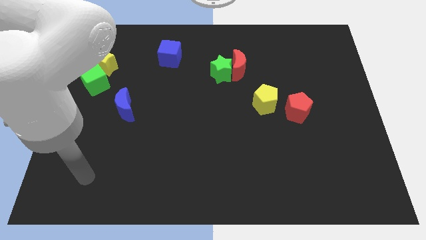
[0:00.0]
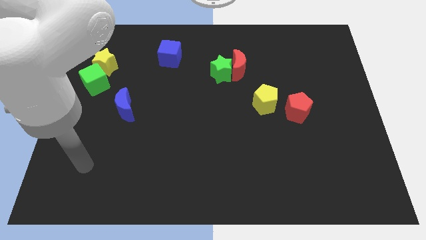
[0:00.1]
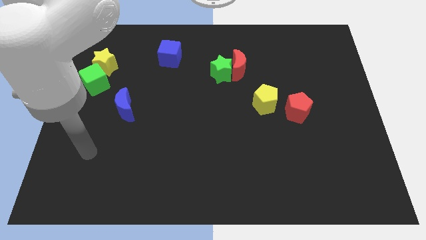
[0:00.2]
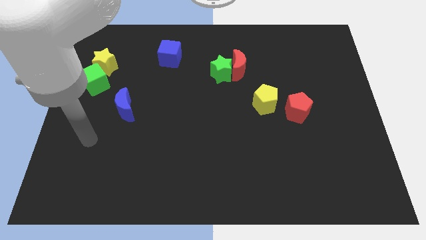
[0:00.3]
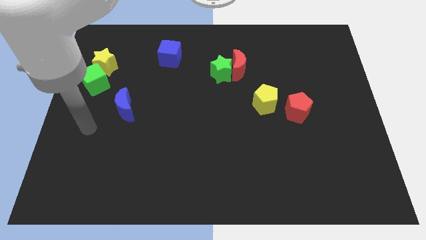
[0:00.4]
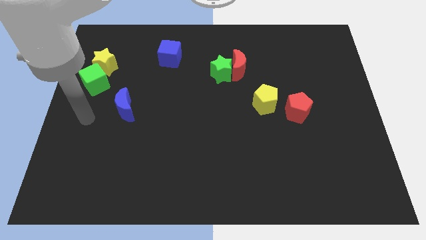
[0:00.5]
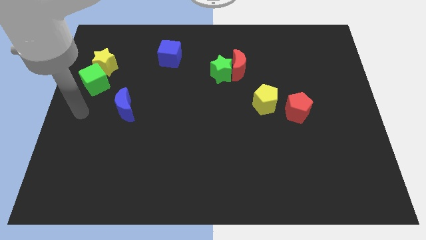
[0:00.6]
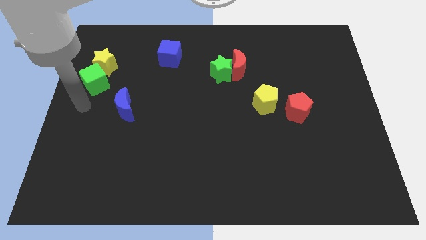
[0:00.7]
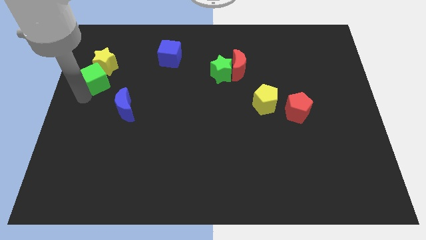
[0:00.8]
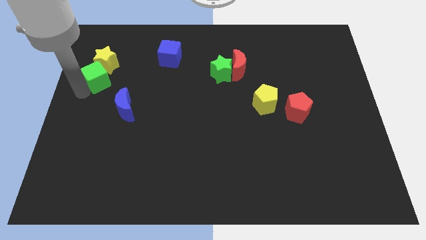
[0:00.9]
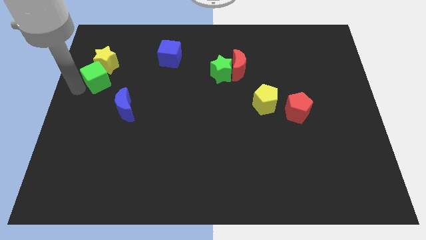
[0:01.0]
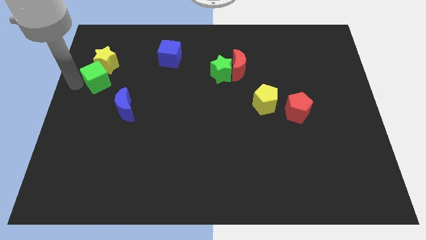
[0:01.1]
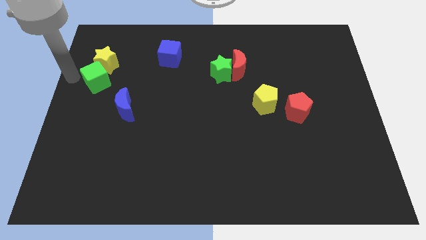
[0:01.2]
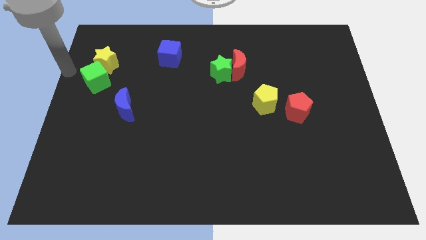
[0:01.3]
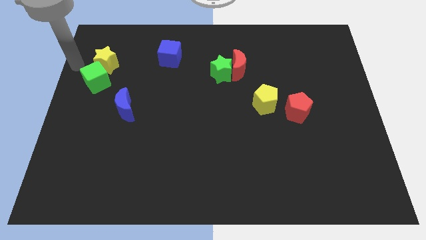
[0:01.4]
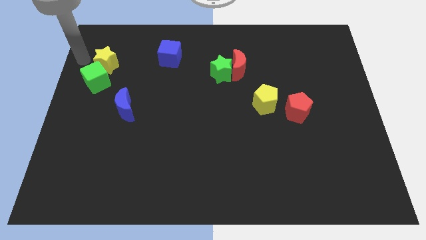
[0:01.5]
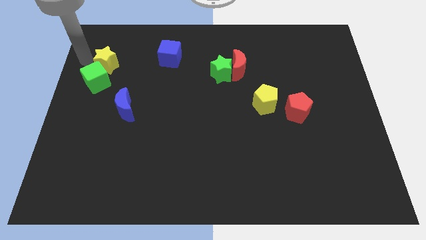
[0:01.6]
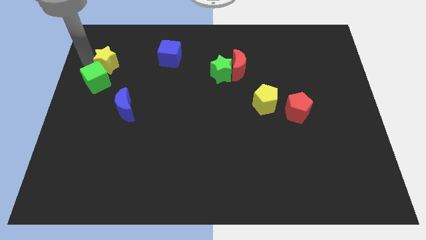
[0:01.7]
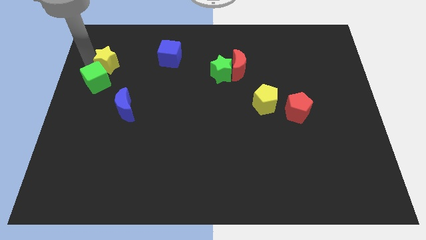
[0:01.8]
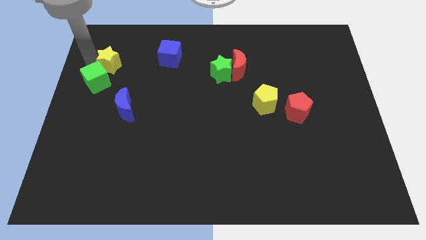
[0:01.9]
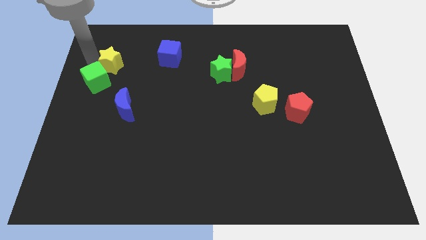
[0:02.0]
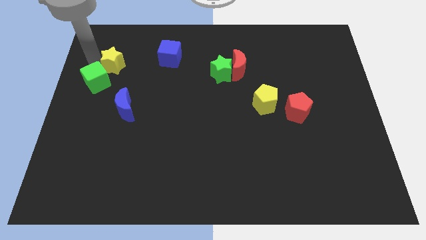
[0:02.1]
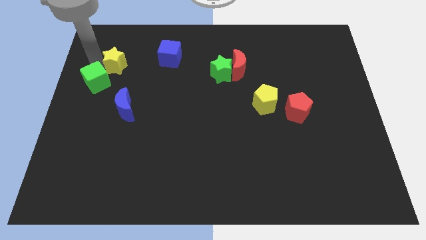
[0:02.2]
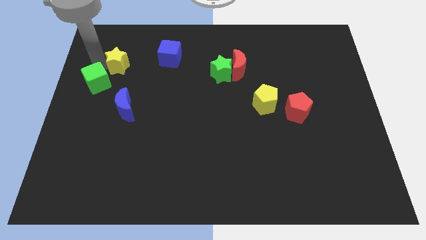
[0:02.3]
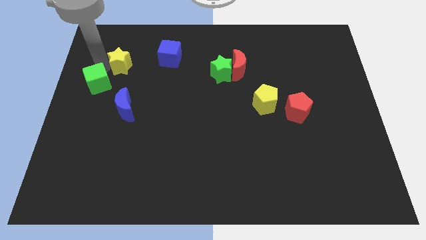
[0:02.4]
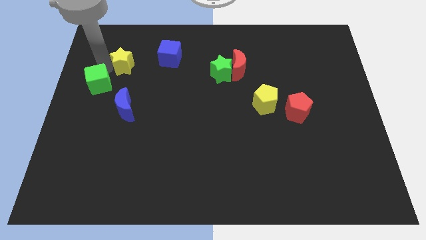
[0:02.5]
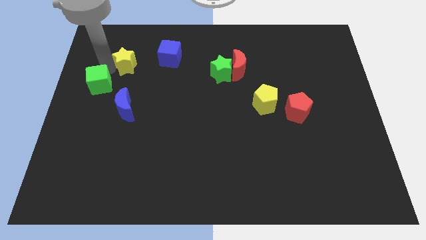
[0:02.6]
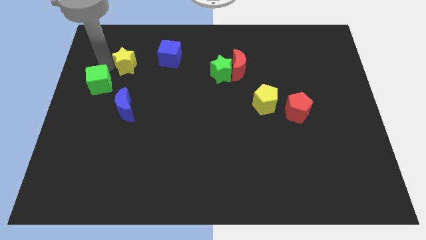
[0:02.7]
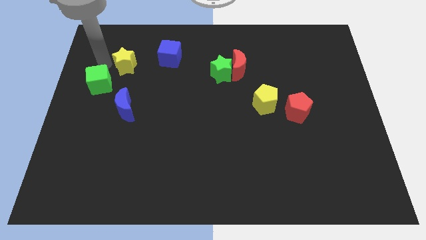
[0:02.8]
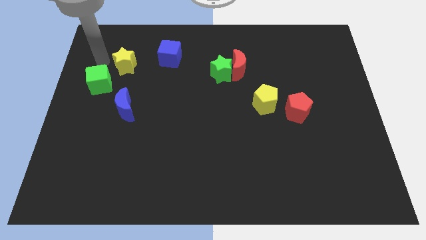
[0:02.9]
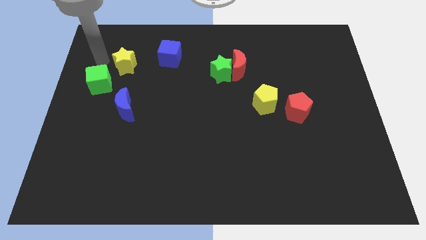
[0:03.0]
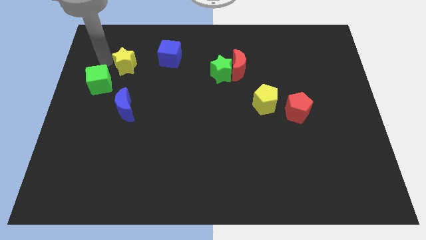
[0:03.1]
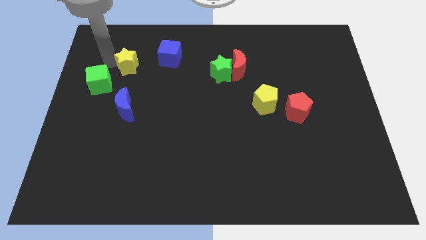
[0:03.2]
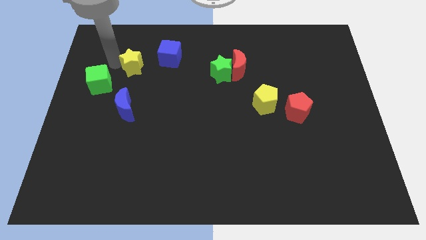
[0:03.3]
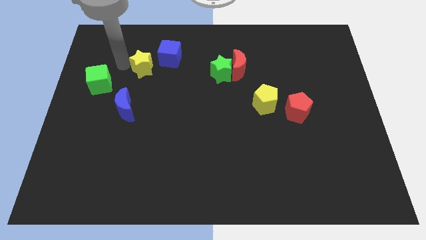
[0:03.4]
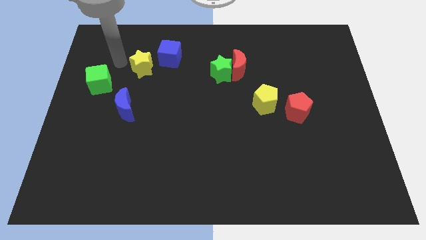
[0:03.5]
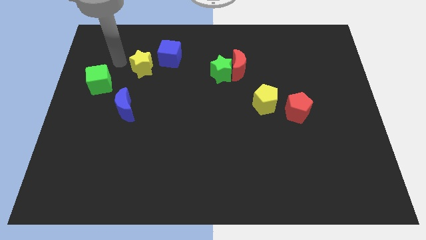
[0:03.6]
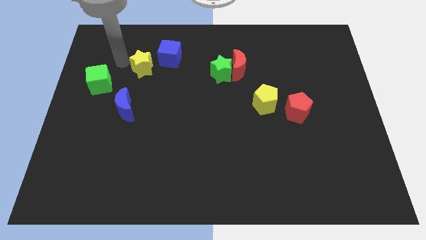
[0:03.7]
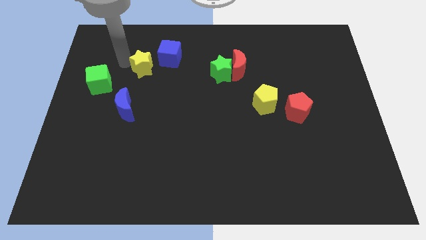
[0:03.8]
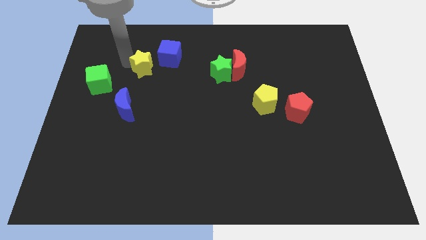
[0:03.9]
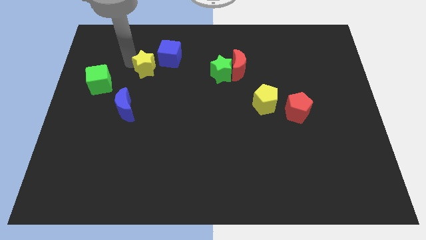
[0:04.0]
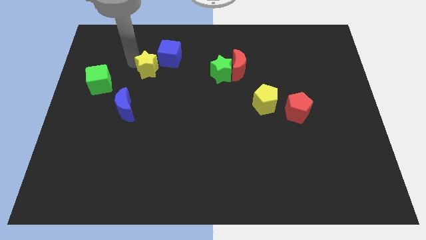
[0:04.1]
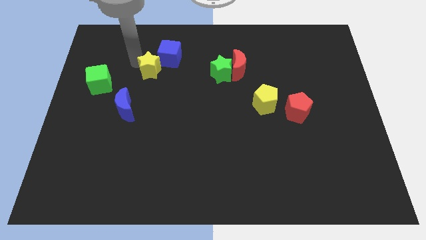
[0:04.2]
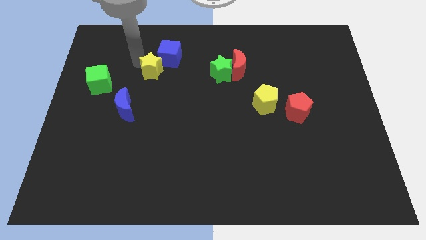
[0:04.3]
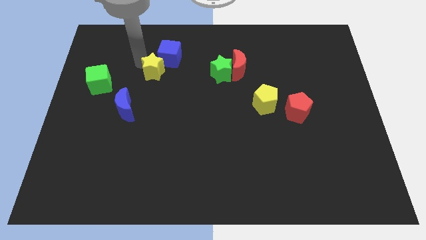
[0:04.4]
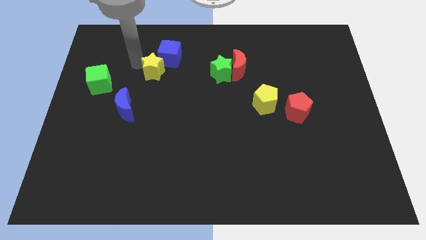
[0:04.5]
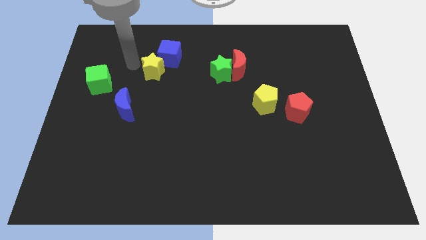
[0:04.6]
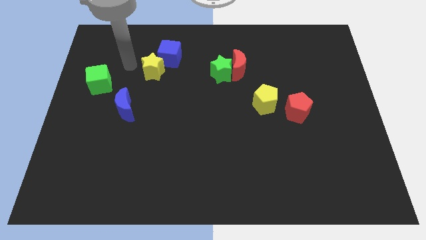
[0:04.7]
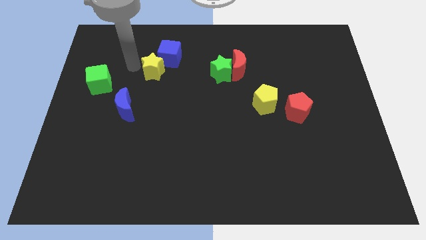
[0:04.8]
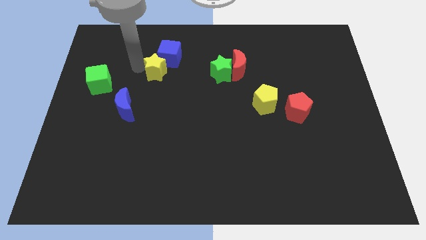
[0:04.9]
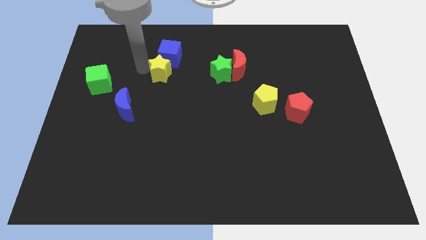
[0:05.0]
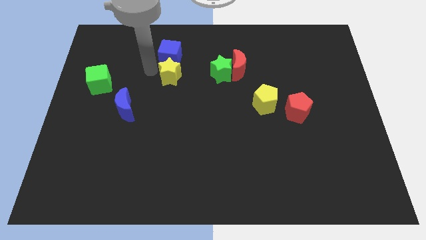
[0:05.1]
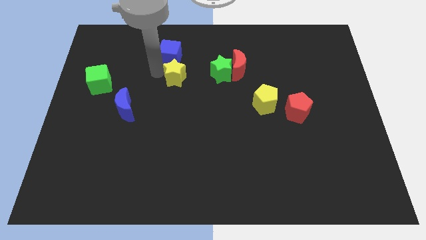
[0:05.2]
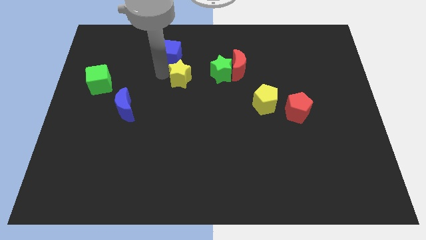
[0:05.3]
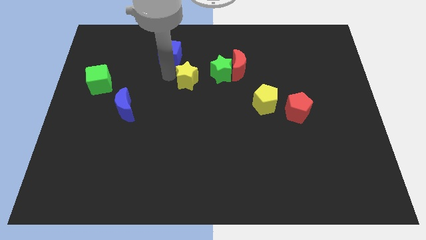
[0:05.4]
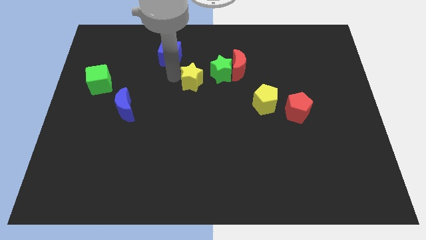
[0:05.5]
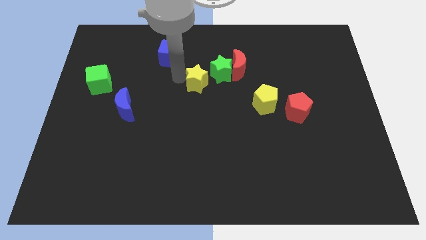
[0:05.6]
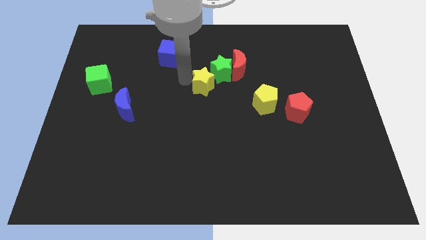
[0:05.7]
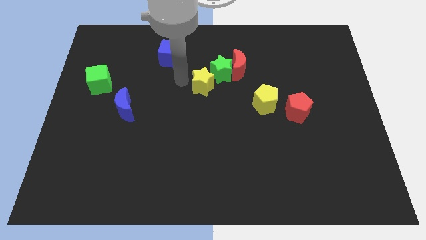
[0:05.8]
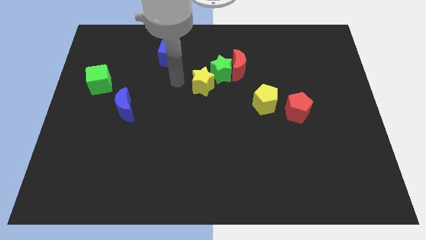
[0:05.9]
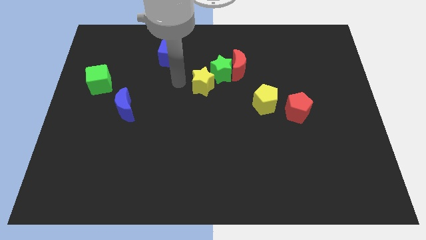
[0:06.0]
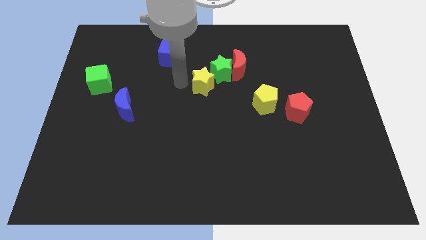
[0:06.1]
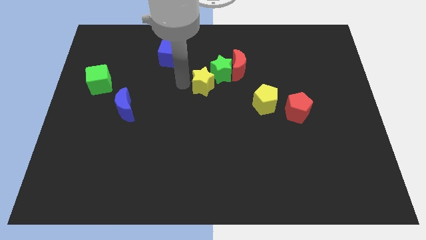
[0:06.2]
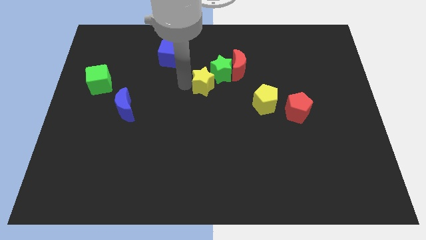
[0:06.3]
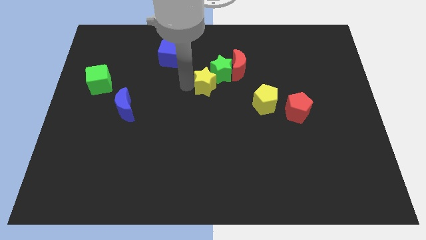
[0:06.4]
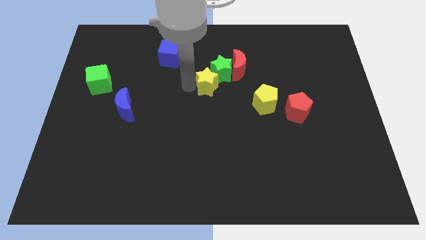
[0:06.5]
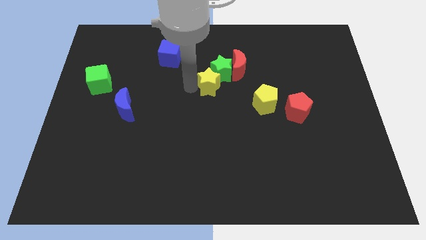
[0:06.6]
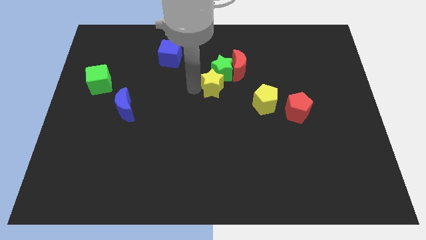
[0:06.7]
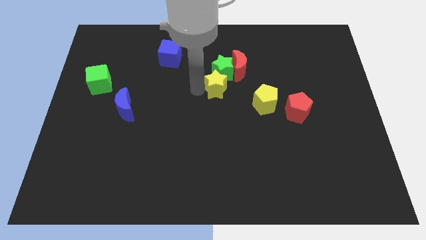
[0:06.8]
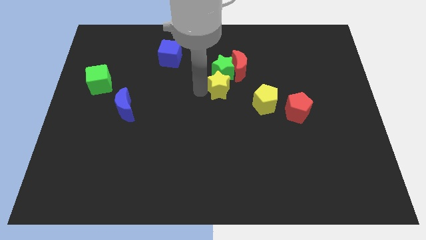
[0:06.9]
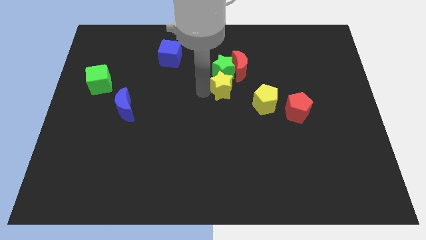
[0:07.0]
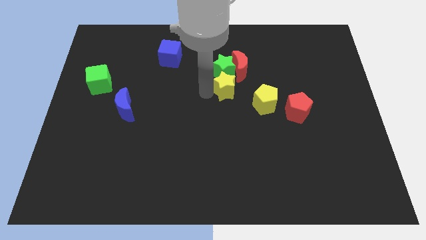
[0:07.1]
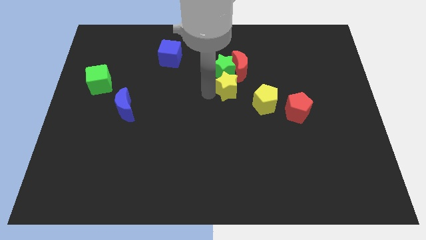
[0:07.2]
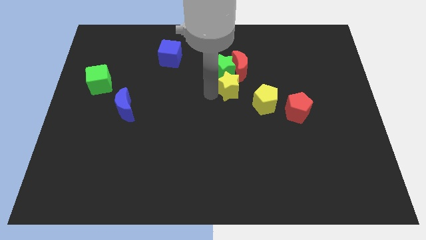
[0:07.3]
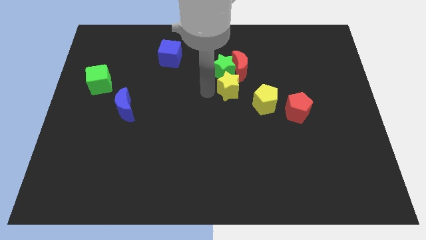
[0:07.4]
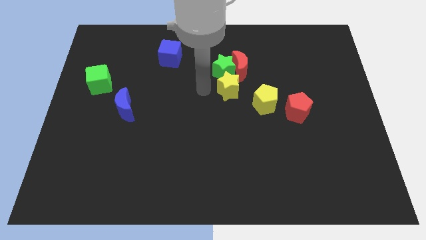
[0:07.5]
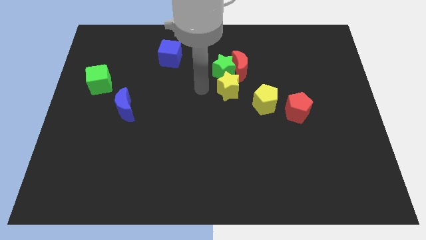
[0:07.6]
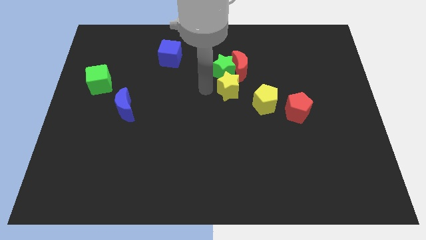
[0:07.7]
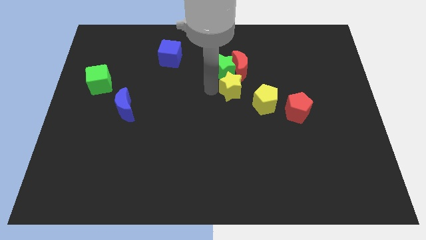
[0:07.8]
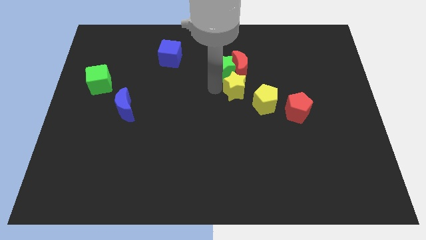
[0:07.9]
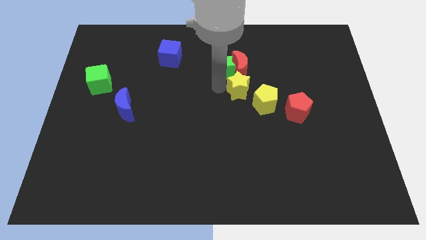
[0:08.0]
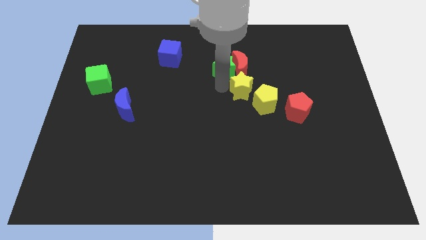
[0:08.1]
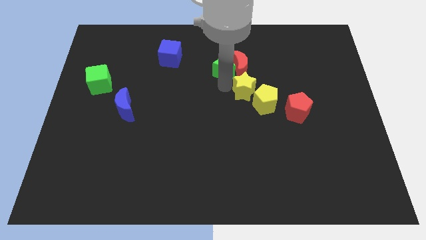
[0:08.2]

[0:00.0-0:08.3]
move the yellow star to the yellow pentagon
